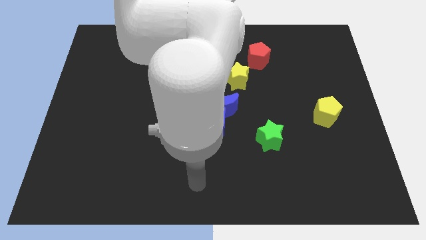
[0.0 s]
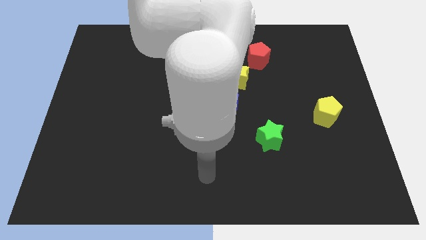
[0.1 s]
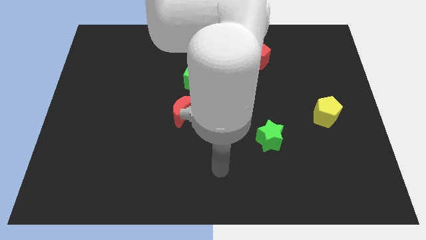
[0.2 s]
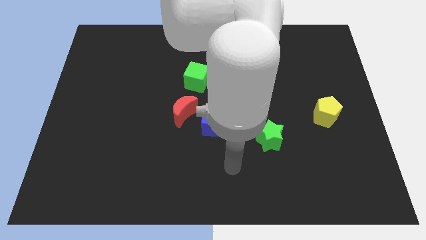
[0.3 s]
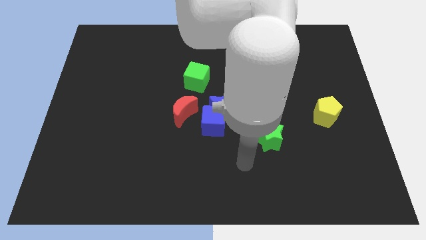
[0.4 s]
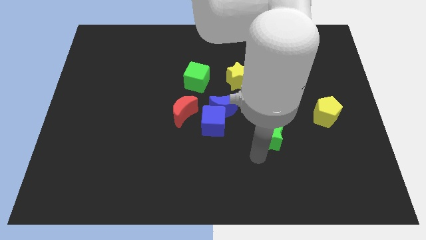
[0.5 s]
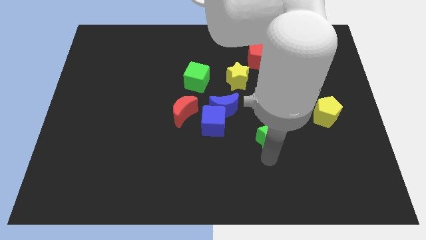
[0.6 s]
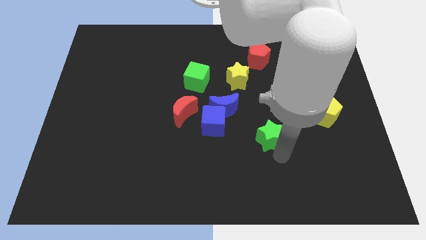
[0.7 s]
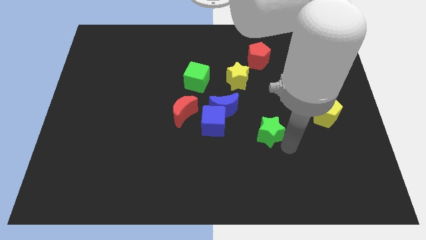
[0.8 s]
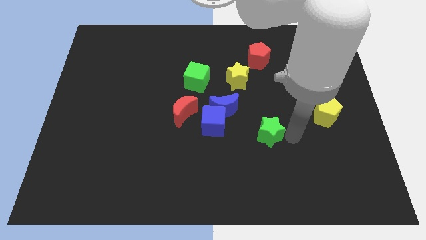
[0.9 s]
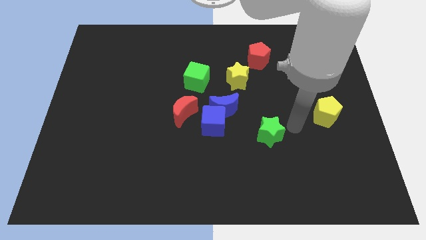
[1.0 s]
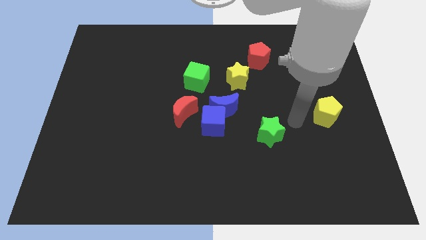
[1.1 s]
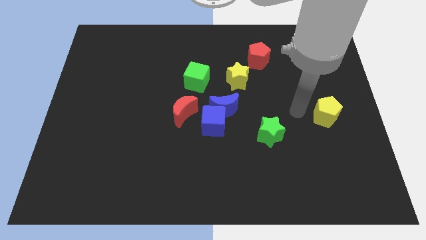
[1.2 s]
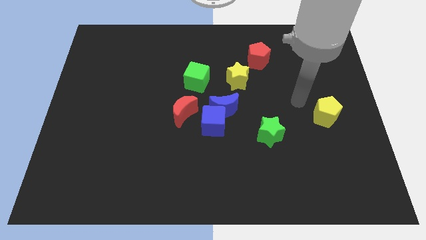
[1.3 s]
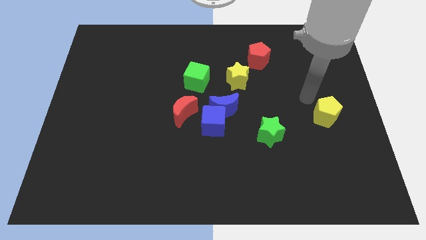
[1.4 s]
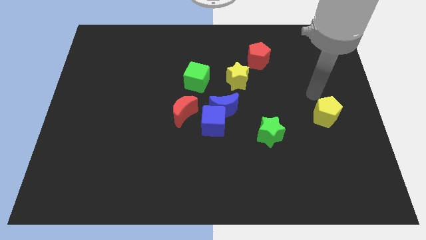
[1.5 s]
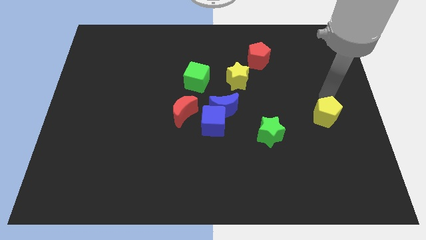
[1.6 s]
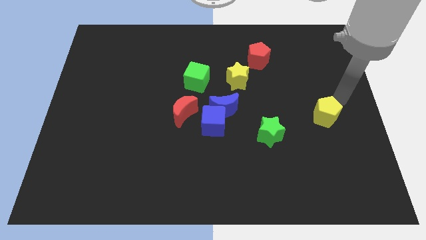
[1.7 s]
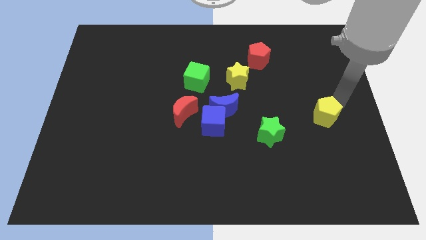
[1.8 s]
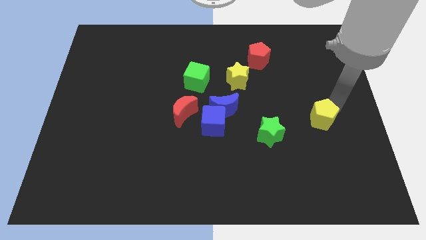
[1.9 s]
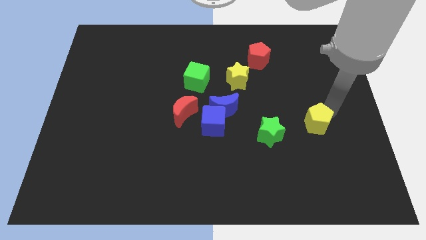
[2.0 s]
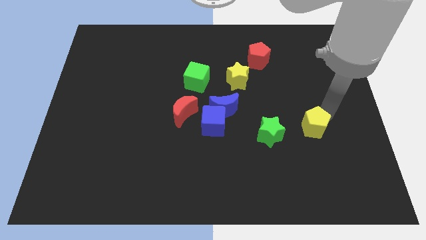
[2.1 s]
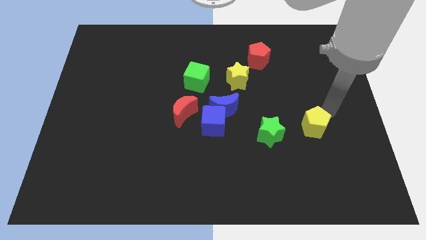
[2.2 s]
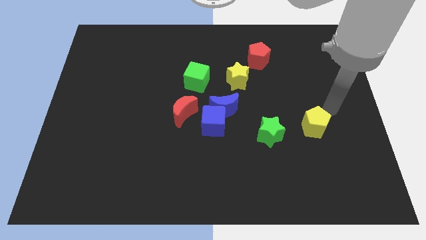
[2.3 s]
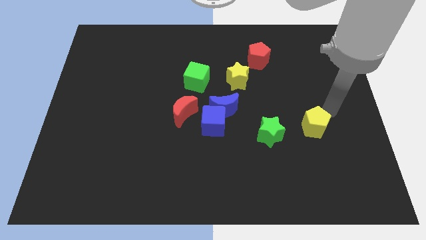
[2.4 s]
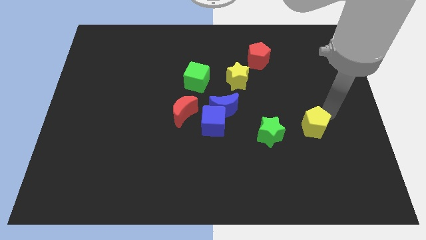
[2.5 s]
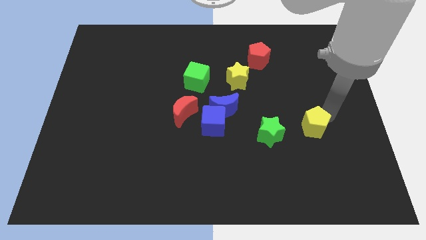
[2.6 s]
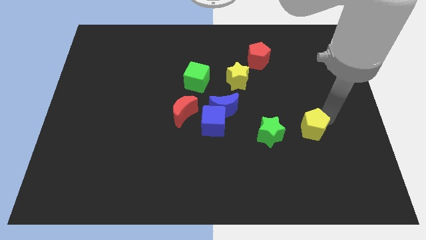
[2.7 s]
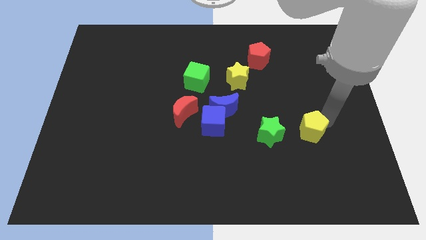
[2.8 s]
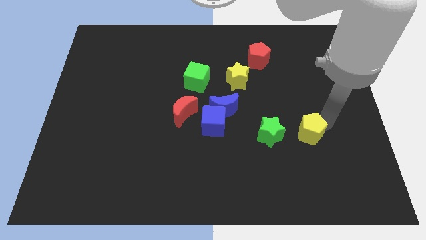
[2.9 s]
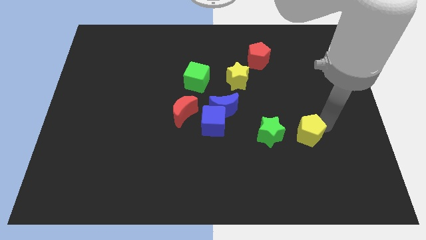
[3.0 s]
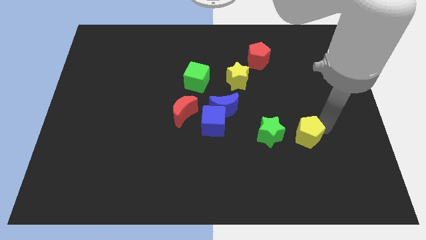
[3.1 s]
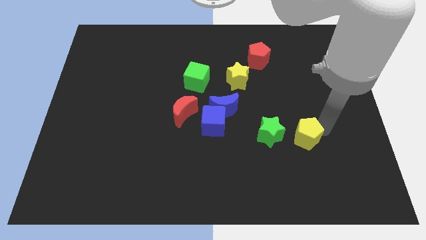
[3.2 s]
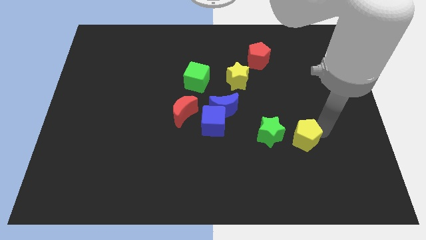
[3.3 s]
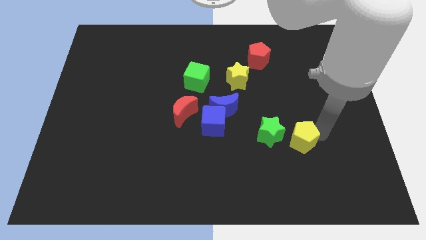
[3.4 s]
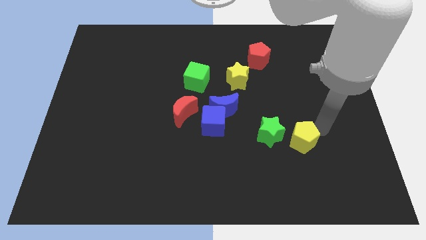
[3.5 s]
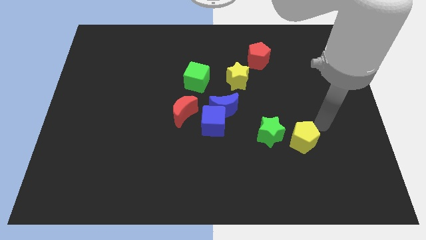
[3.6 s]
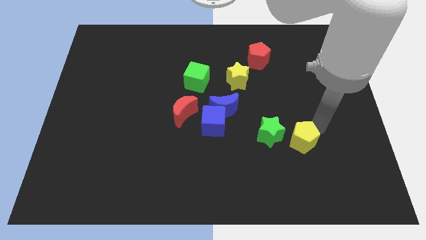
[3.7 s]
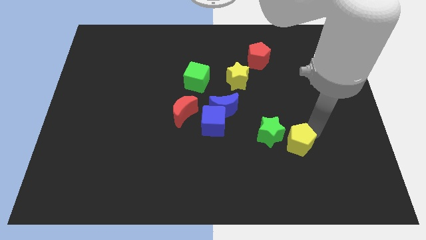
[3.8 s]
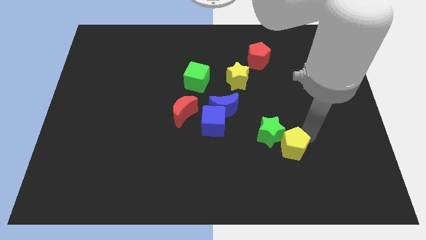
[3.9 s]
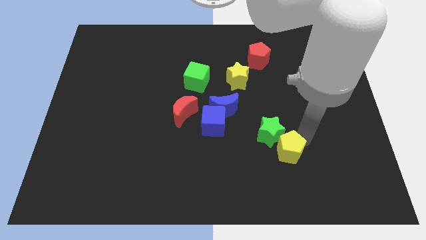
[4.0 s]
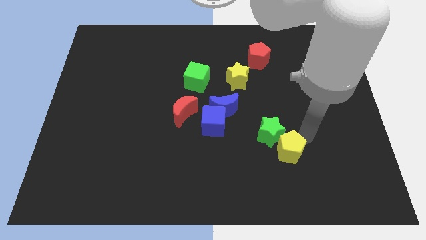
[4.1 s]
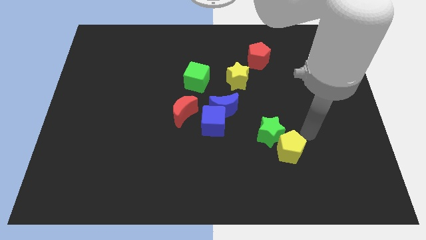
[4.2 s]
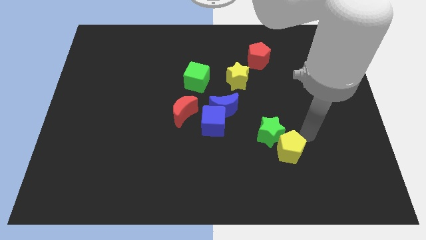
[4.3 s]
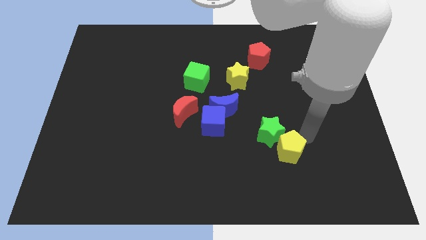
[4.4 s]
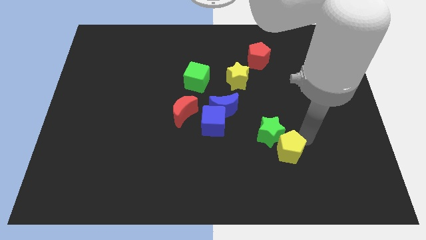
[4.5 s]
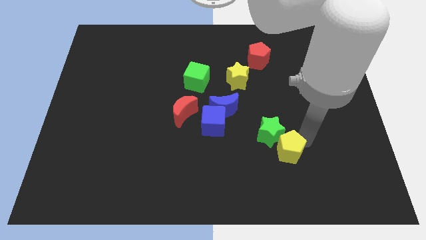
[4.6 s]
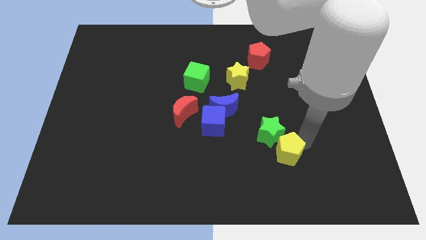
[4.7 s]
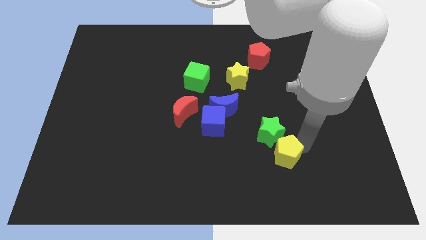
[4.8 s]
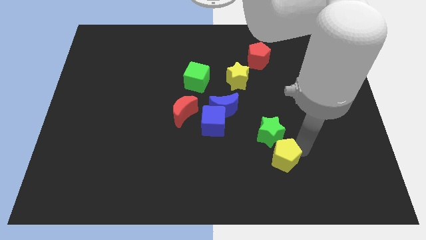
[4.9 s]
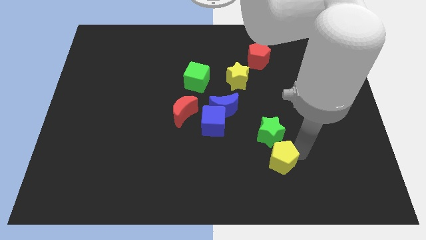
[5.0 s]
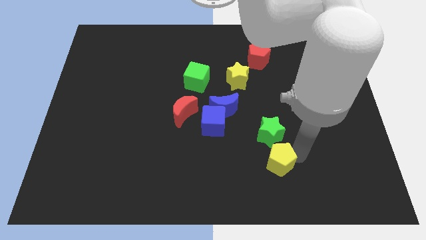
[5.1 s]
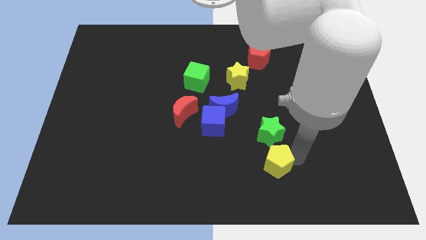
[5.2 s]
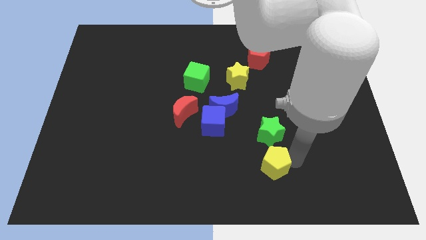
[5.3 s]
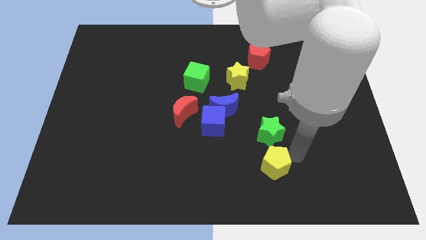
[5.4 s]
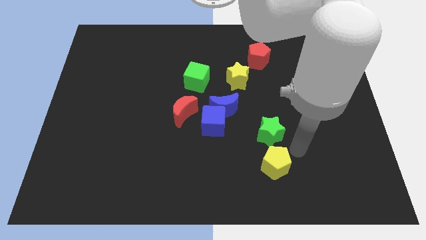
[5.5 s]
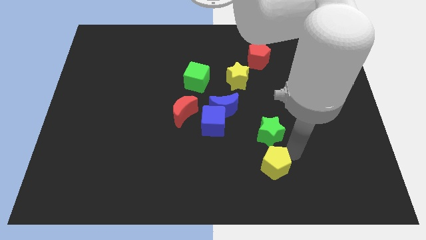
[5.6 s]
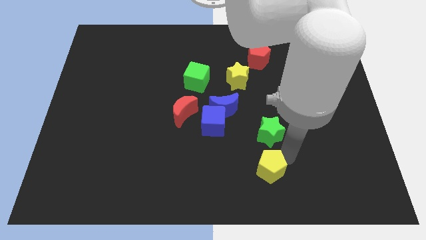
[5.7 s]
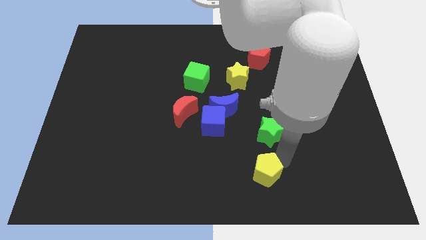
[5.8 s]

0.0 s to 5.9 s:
push the yellow pentagon to the bottom

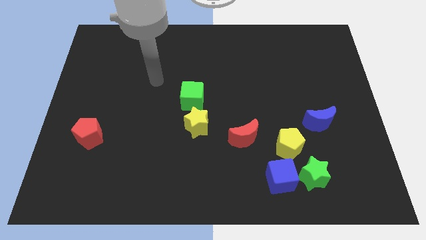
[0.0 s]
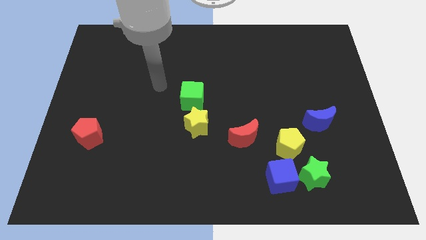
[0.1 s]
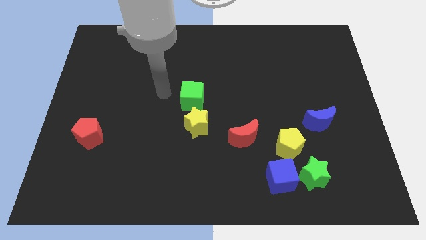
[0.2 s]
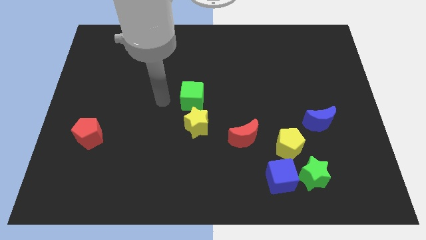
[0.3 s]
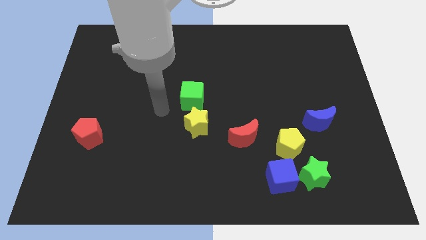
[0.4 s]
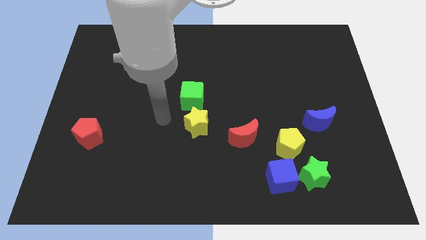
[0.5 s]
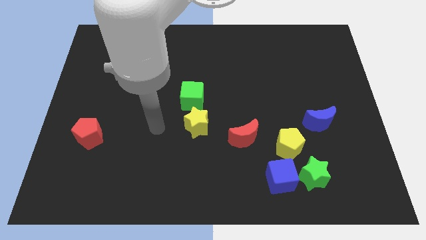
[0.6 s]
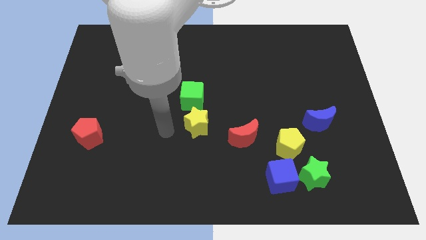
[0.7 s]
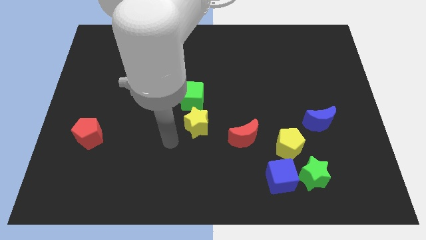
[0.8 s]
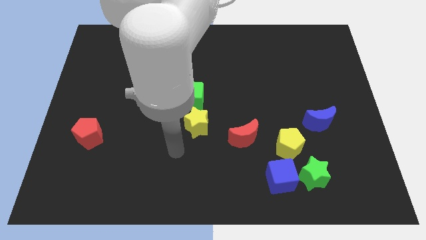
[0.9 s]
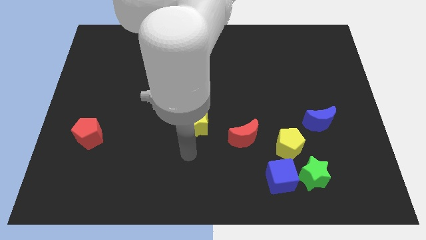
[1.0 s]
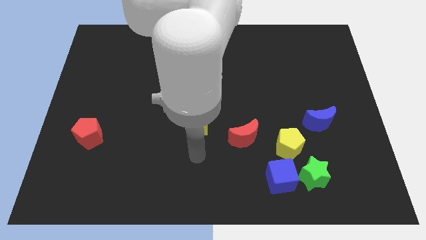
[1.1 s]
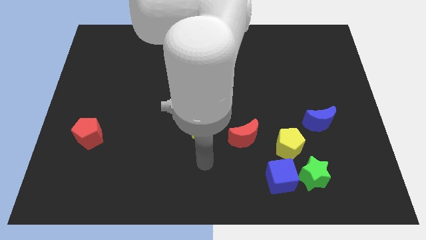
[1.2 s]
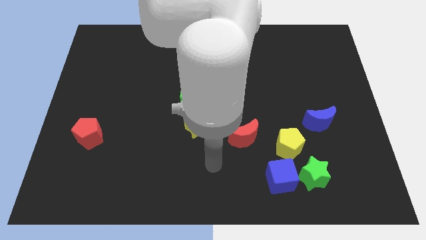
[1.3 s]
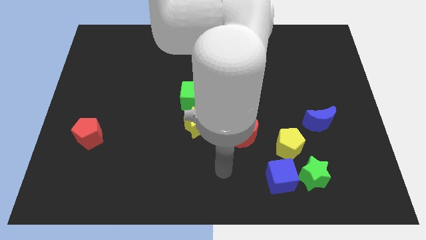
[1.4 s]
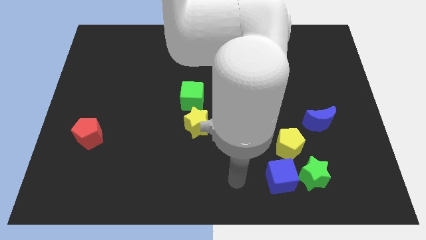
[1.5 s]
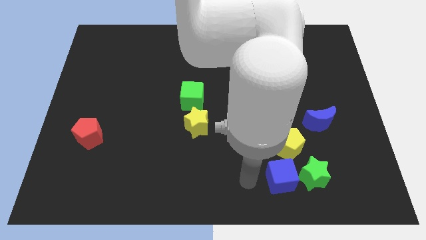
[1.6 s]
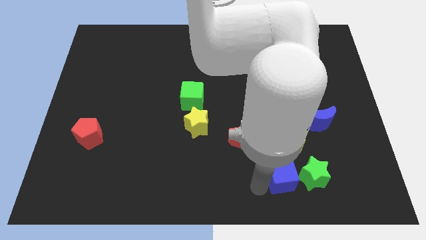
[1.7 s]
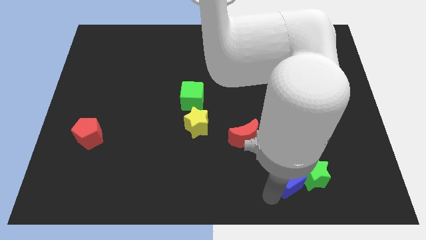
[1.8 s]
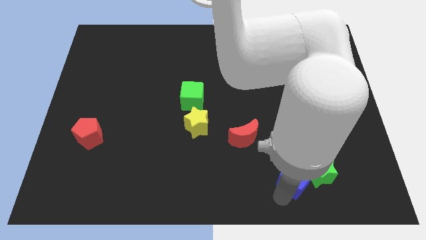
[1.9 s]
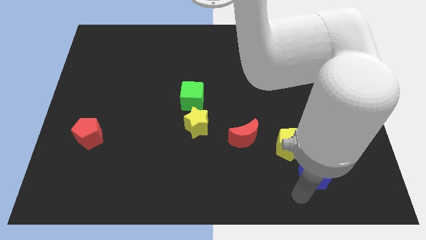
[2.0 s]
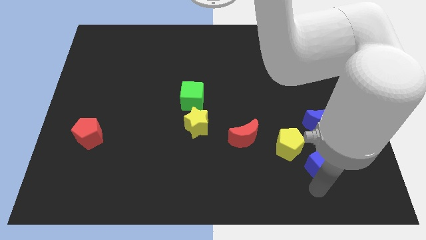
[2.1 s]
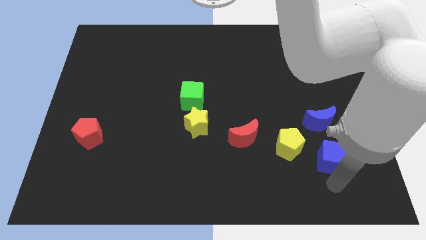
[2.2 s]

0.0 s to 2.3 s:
push the green star to the center right
